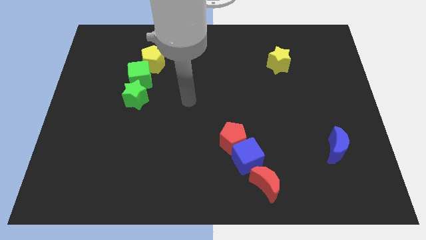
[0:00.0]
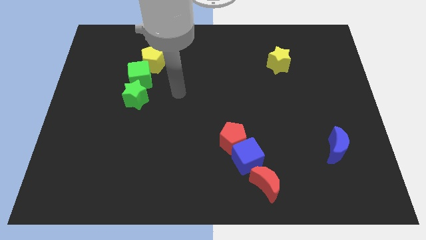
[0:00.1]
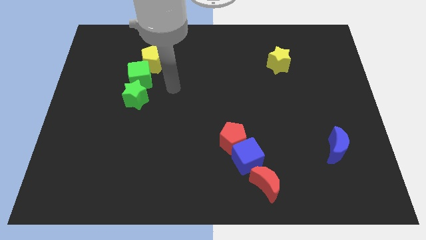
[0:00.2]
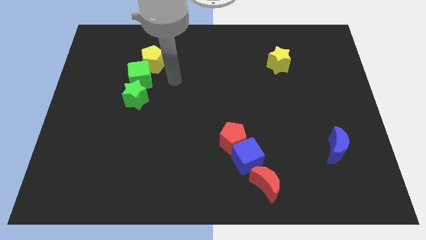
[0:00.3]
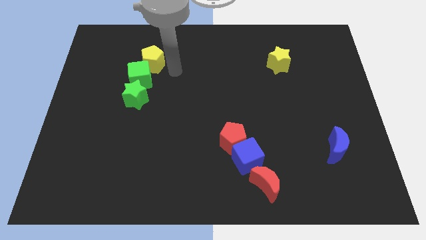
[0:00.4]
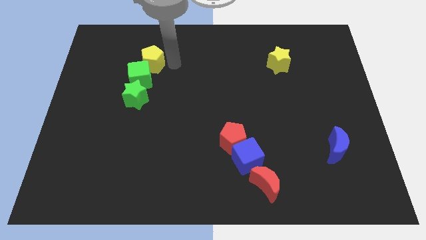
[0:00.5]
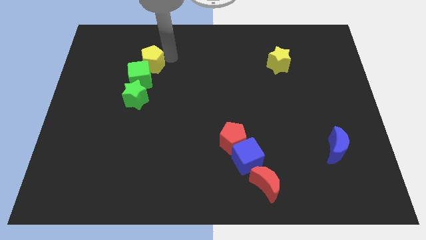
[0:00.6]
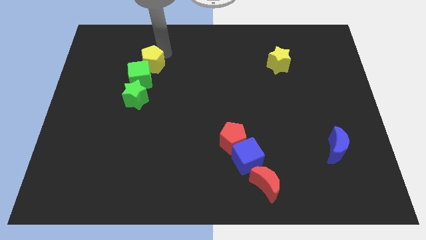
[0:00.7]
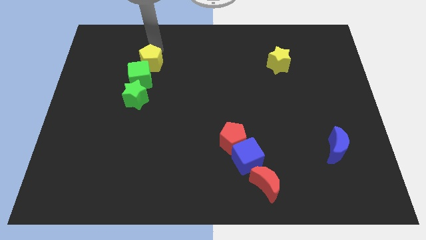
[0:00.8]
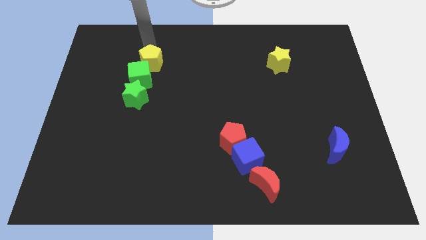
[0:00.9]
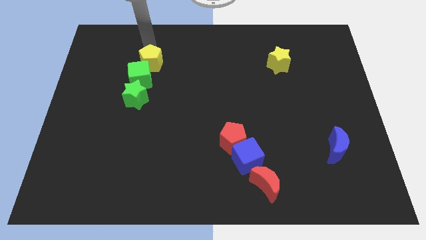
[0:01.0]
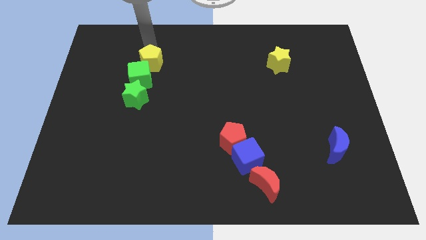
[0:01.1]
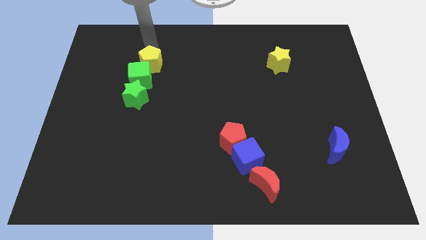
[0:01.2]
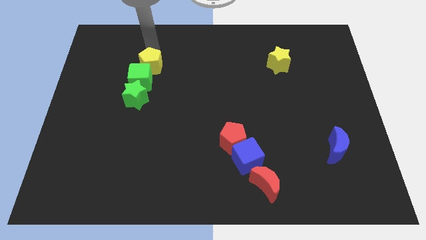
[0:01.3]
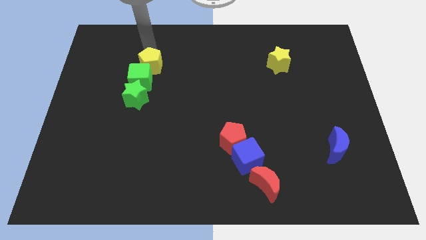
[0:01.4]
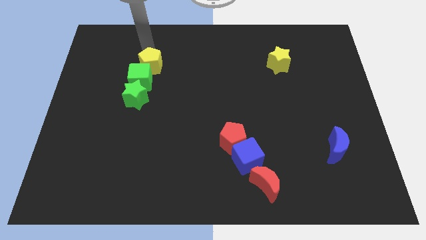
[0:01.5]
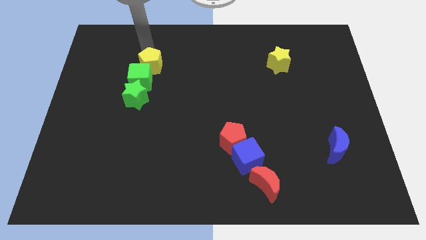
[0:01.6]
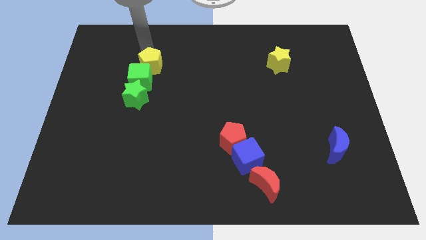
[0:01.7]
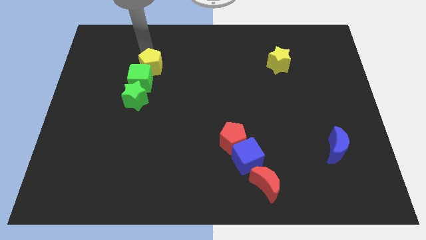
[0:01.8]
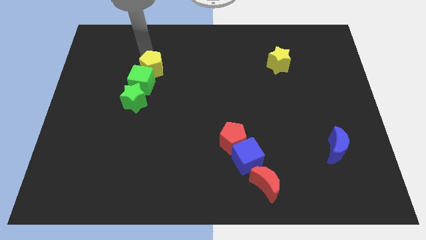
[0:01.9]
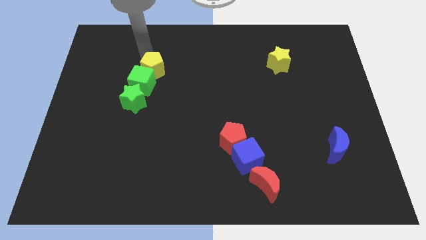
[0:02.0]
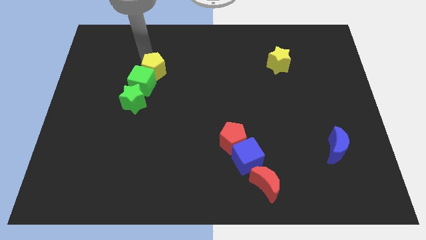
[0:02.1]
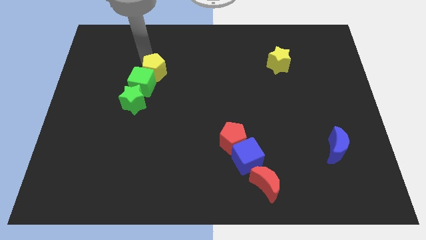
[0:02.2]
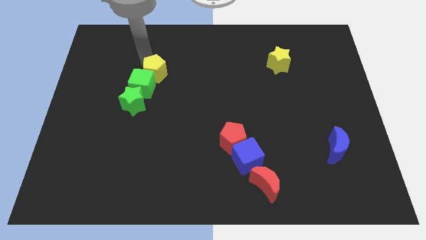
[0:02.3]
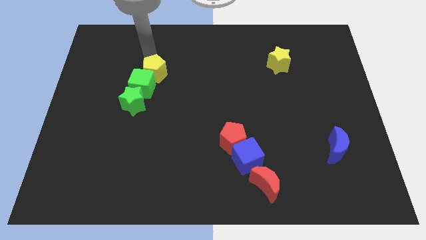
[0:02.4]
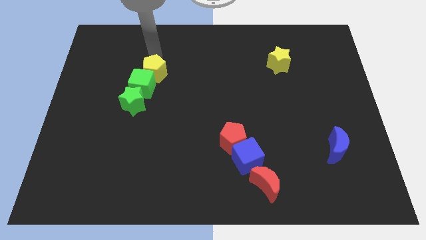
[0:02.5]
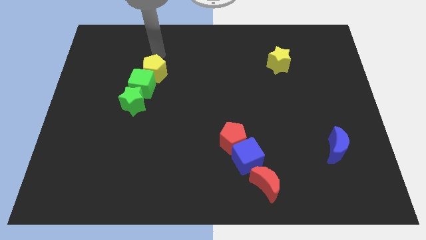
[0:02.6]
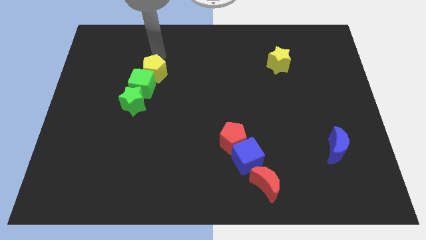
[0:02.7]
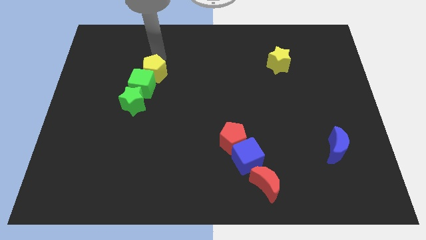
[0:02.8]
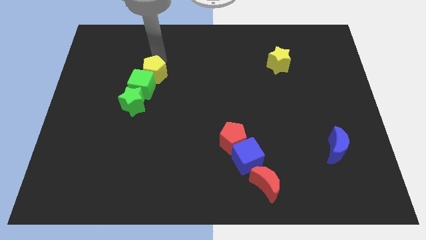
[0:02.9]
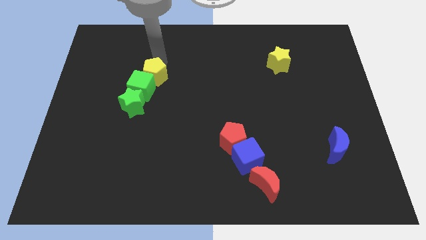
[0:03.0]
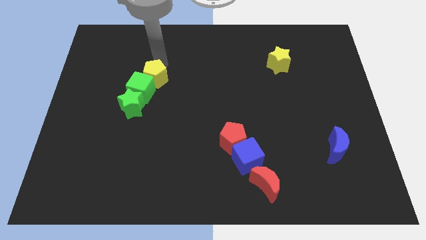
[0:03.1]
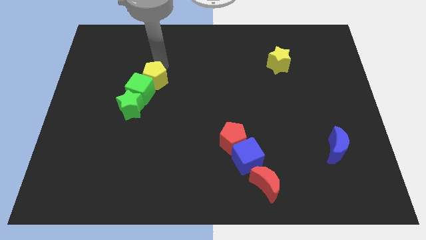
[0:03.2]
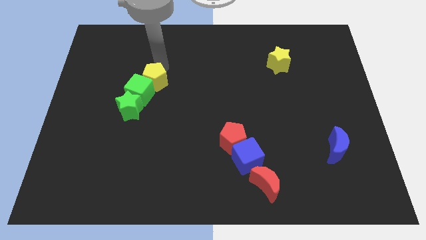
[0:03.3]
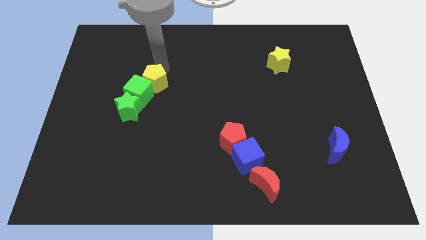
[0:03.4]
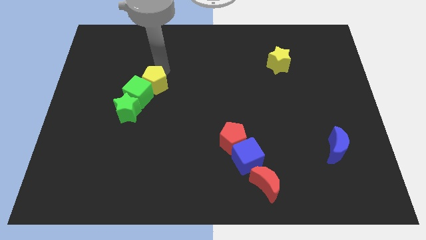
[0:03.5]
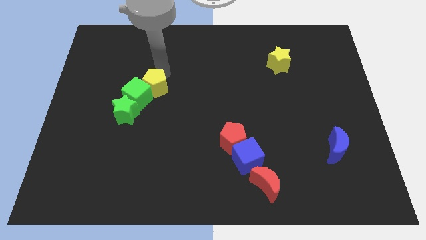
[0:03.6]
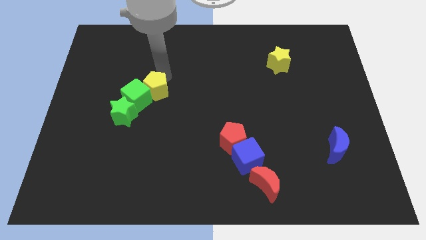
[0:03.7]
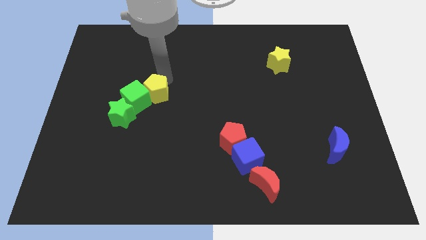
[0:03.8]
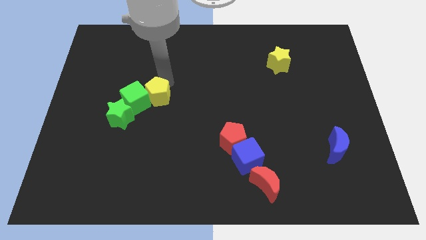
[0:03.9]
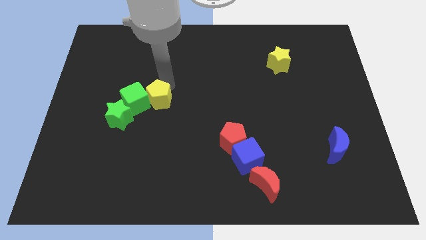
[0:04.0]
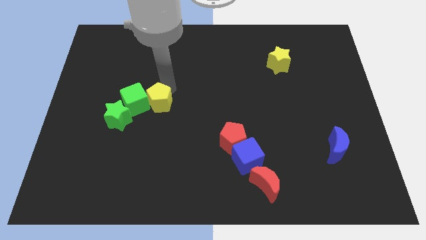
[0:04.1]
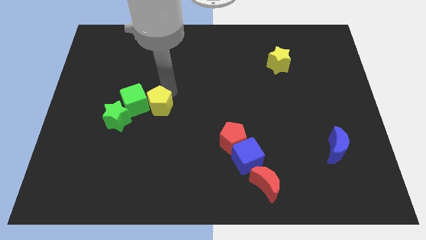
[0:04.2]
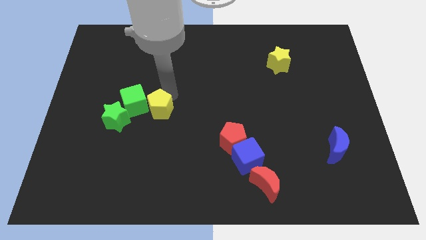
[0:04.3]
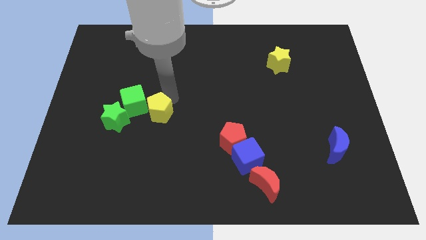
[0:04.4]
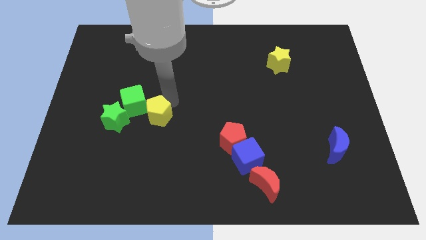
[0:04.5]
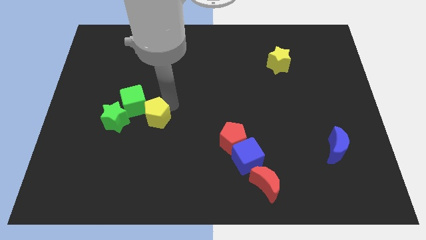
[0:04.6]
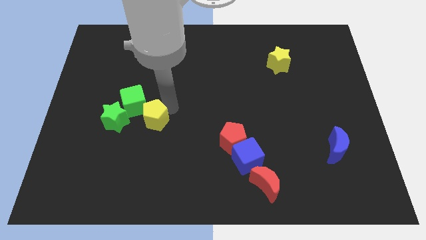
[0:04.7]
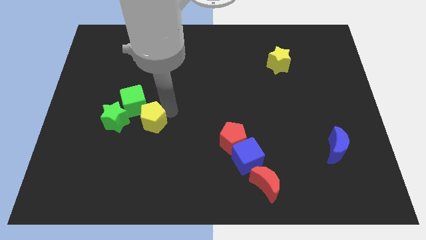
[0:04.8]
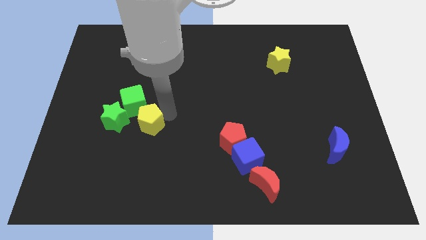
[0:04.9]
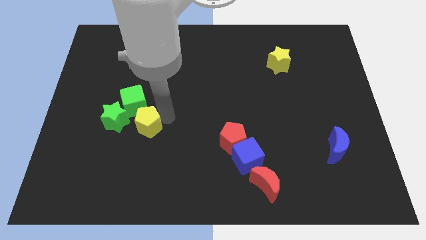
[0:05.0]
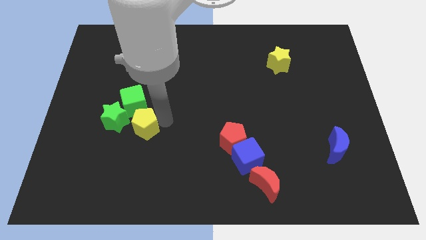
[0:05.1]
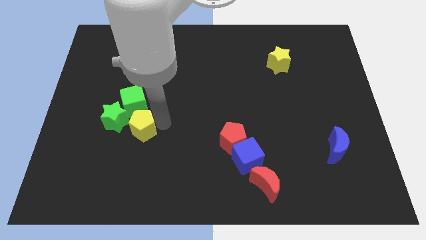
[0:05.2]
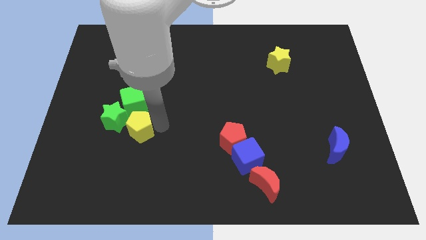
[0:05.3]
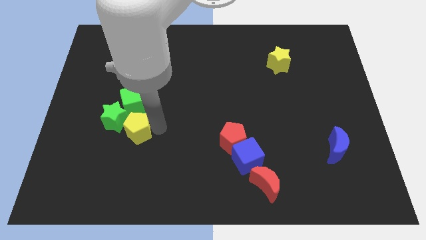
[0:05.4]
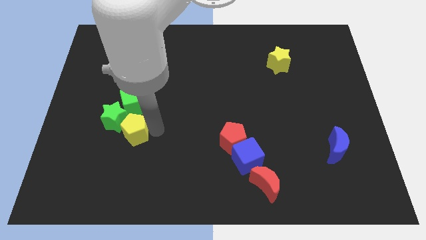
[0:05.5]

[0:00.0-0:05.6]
push the yellow pentagon next to the green star

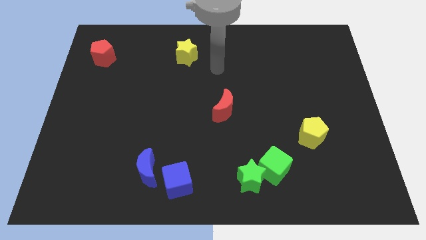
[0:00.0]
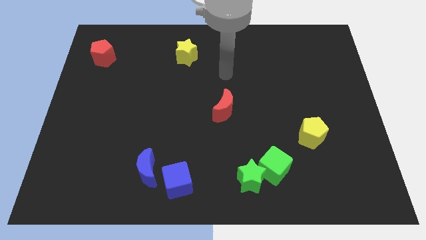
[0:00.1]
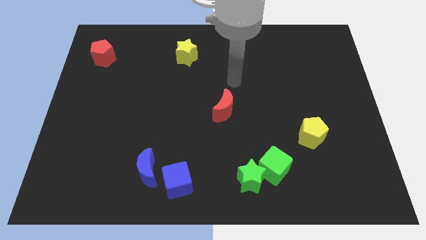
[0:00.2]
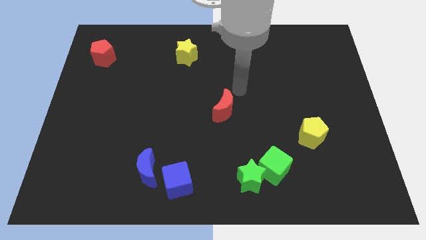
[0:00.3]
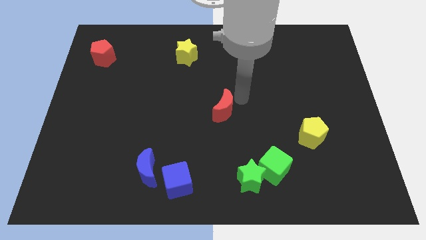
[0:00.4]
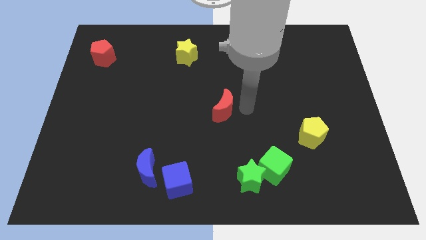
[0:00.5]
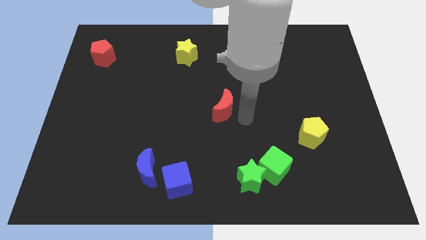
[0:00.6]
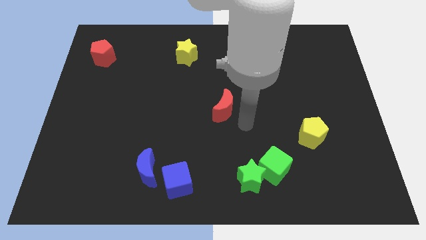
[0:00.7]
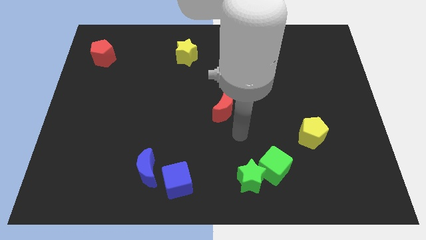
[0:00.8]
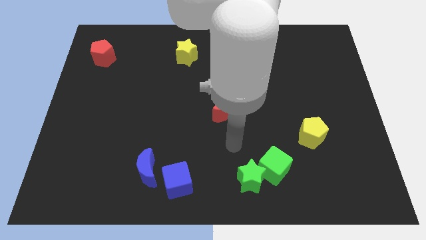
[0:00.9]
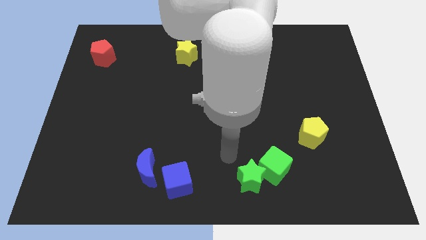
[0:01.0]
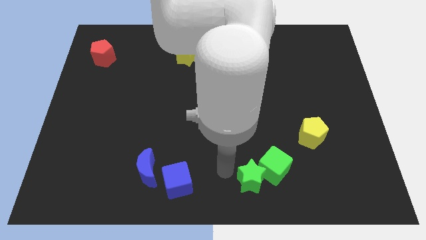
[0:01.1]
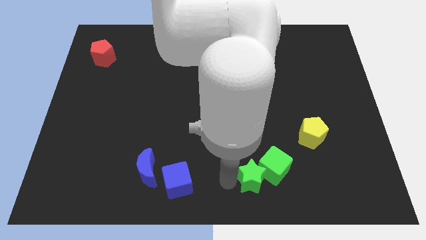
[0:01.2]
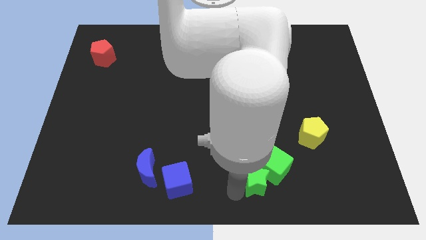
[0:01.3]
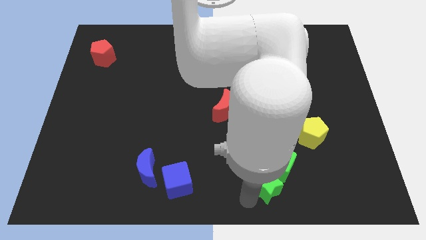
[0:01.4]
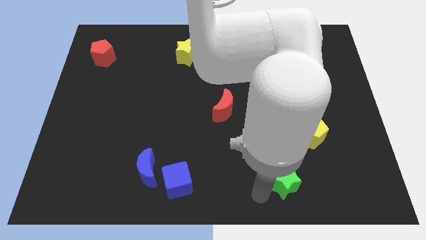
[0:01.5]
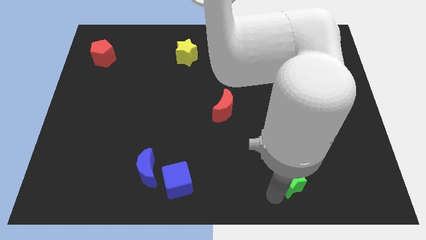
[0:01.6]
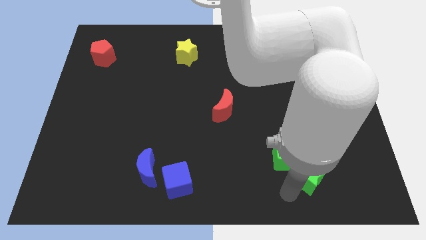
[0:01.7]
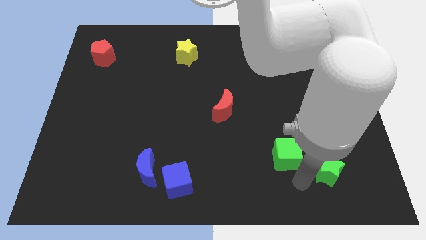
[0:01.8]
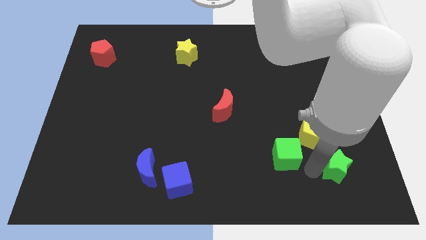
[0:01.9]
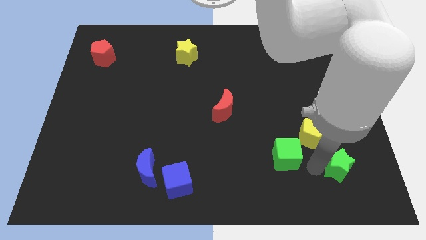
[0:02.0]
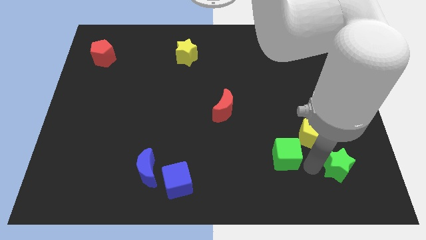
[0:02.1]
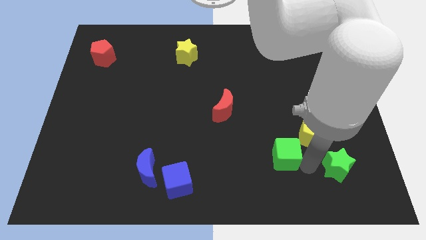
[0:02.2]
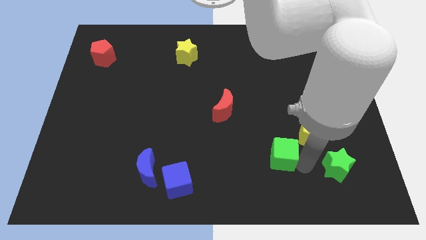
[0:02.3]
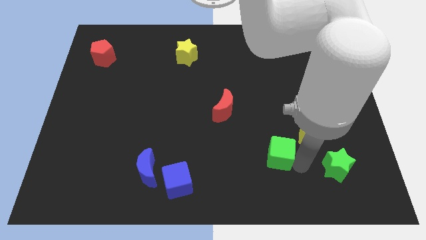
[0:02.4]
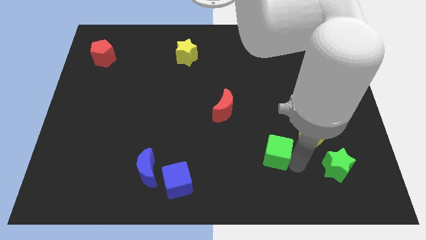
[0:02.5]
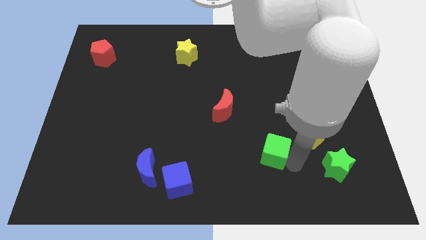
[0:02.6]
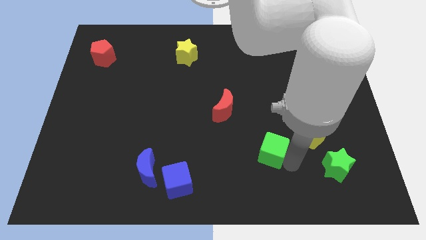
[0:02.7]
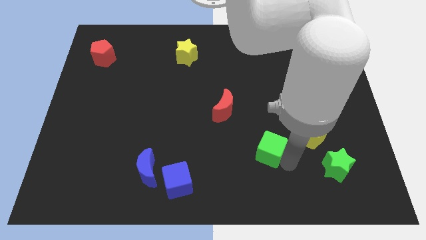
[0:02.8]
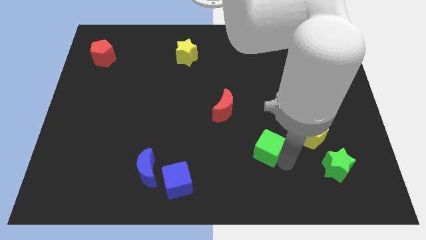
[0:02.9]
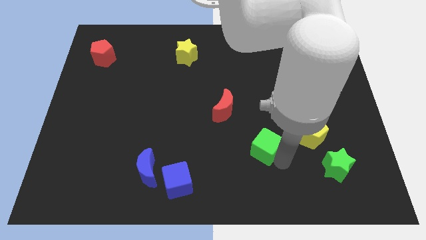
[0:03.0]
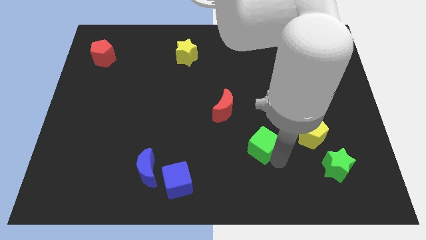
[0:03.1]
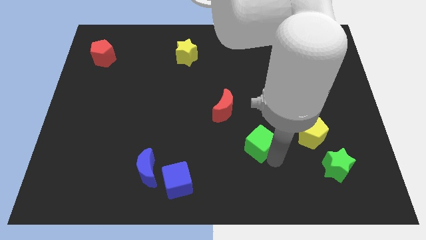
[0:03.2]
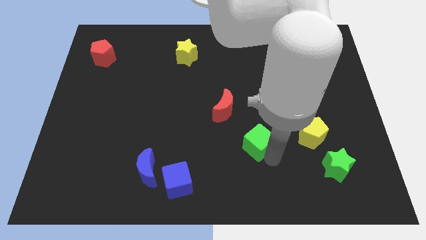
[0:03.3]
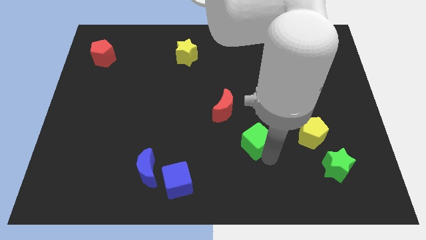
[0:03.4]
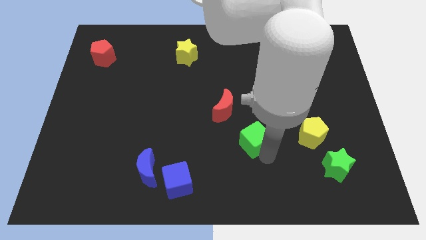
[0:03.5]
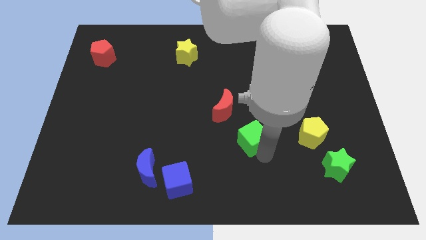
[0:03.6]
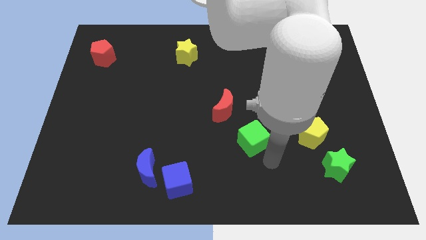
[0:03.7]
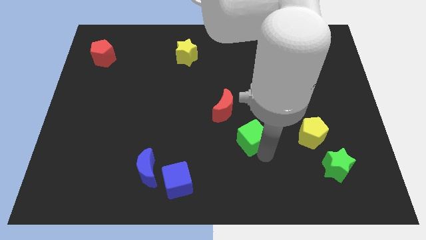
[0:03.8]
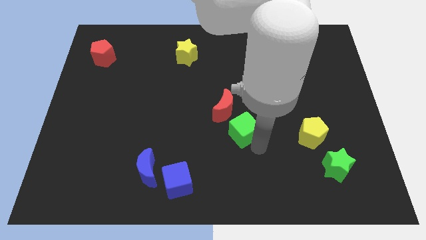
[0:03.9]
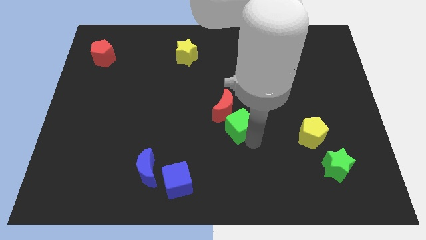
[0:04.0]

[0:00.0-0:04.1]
put the green cube close to the red moon
